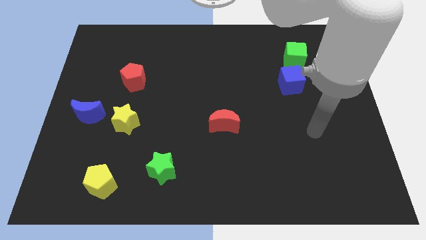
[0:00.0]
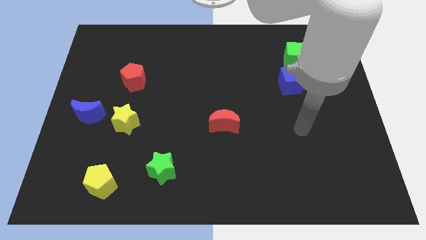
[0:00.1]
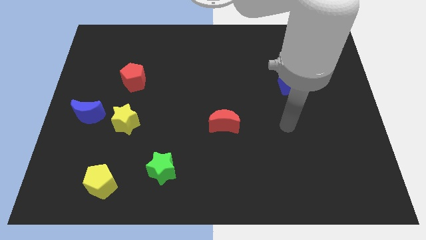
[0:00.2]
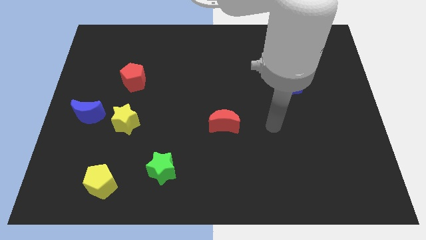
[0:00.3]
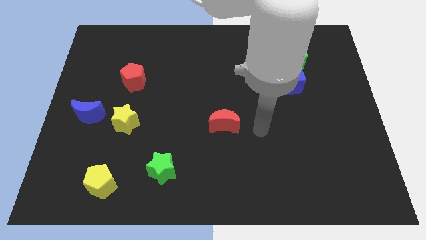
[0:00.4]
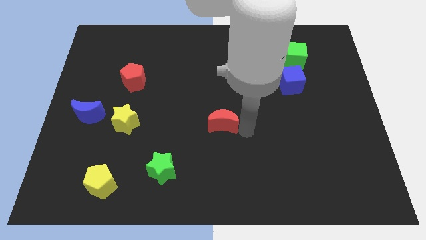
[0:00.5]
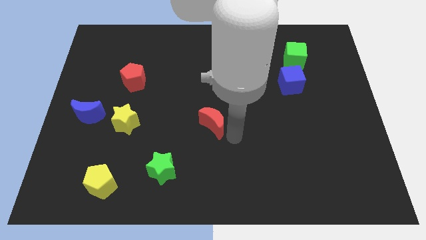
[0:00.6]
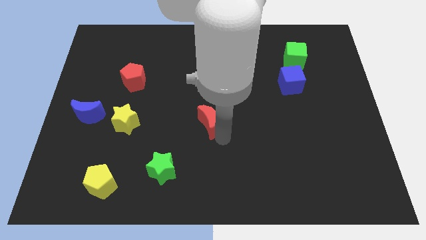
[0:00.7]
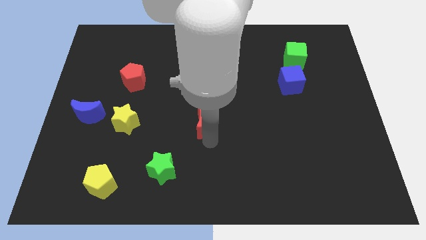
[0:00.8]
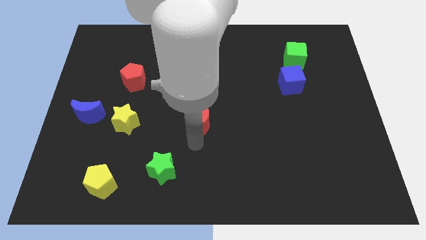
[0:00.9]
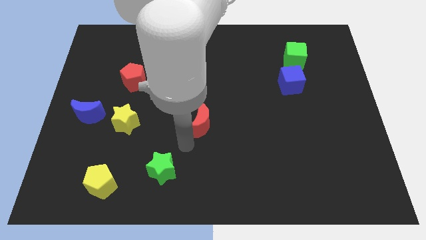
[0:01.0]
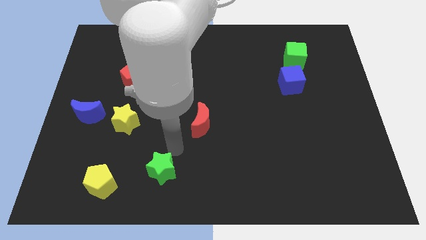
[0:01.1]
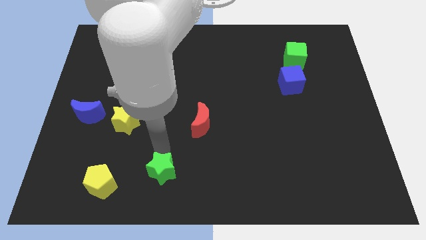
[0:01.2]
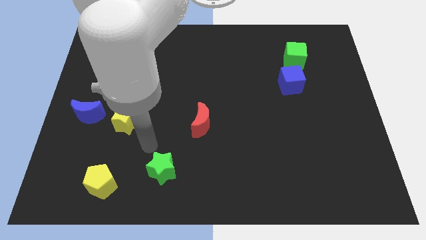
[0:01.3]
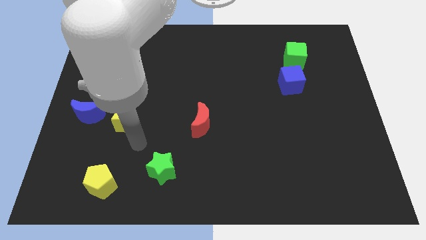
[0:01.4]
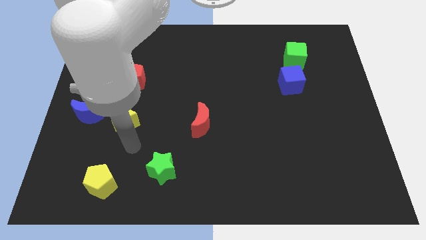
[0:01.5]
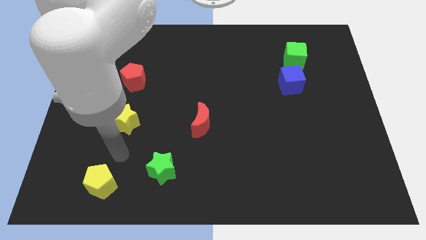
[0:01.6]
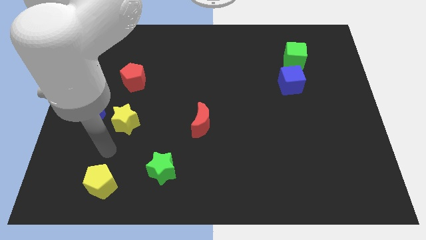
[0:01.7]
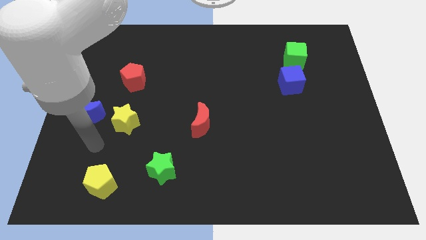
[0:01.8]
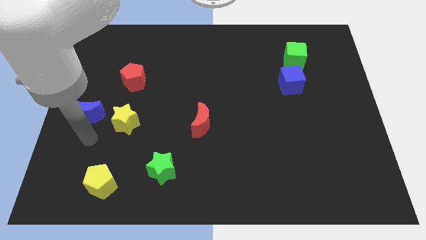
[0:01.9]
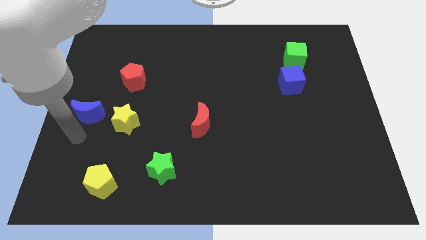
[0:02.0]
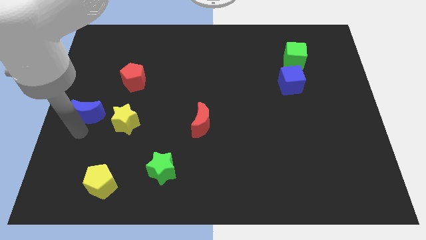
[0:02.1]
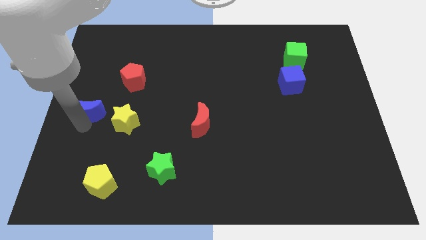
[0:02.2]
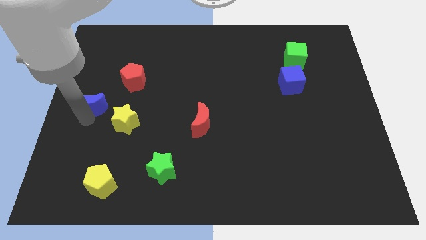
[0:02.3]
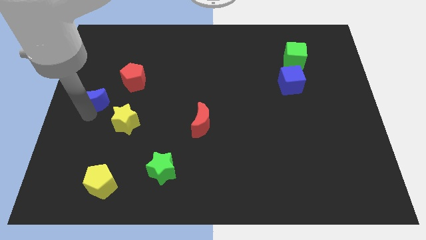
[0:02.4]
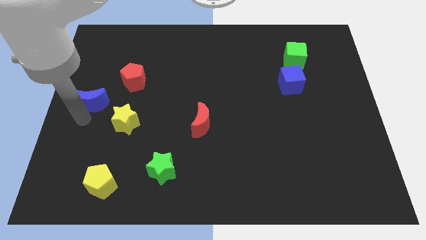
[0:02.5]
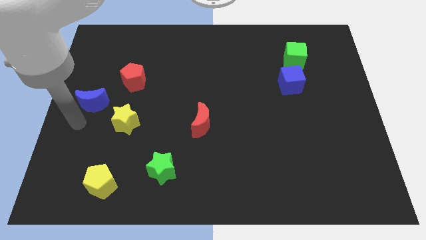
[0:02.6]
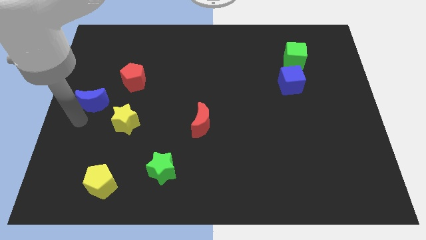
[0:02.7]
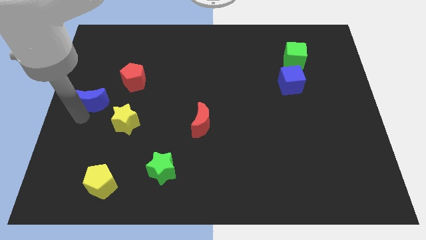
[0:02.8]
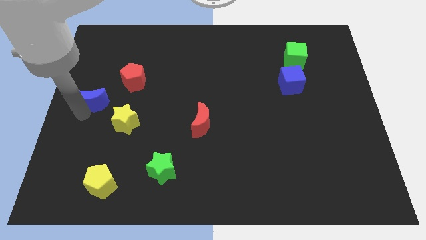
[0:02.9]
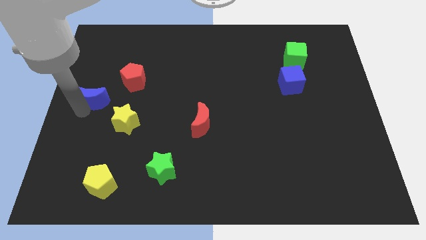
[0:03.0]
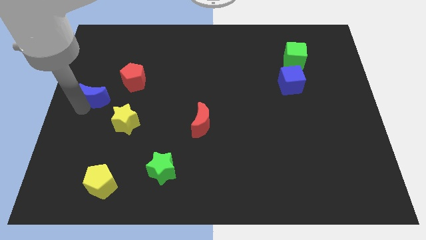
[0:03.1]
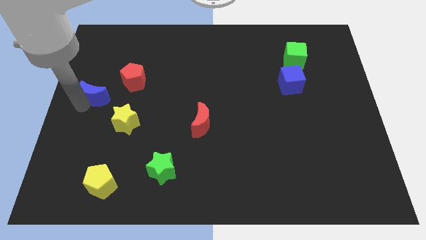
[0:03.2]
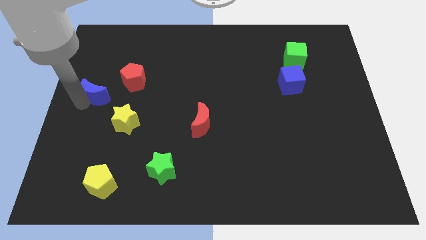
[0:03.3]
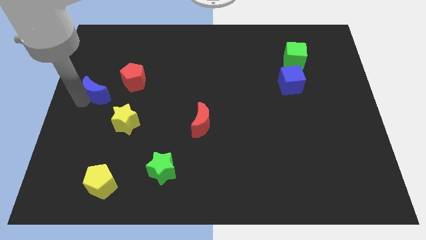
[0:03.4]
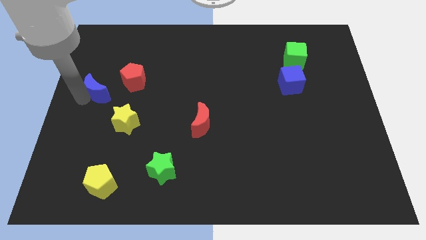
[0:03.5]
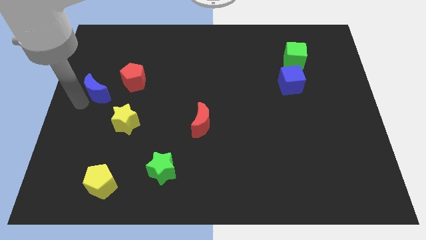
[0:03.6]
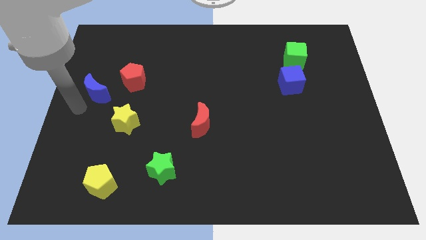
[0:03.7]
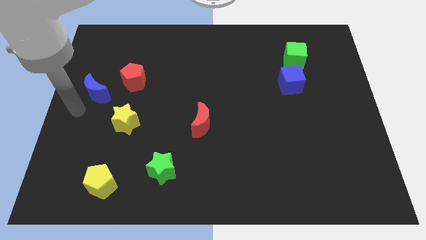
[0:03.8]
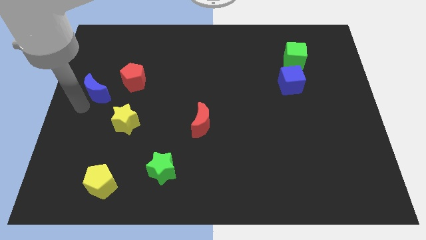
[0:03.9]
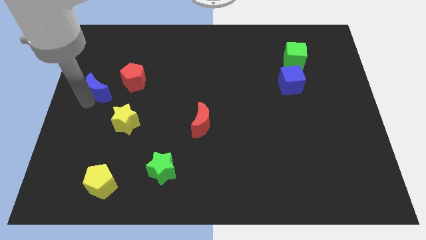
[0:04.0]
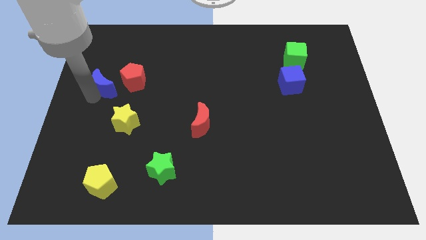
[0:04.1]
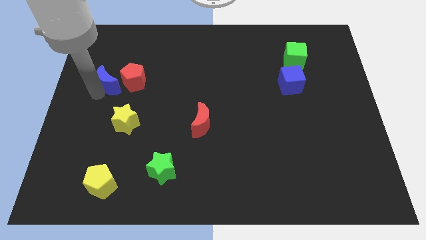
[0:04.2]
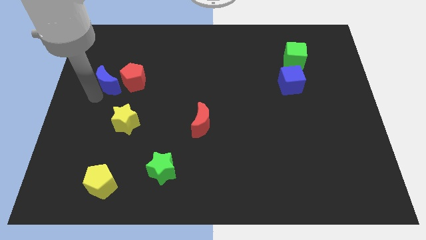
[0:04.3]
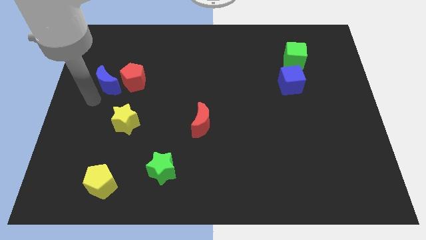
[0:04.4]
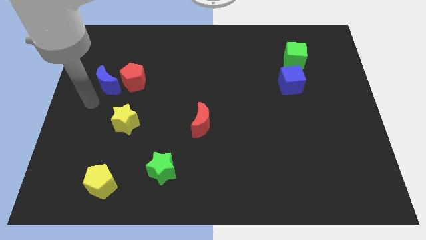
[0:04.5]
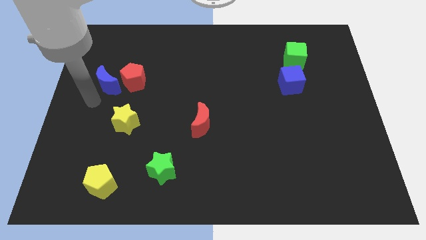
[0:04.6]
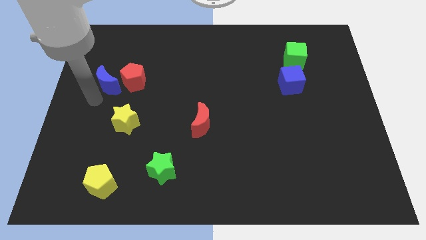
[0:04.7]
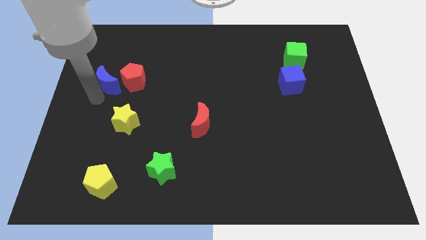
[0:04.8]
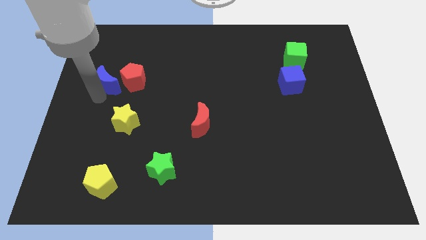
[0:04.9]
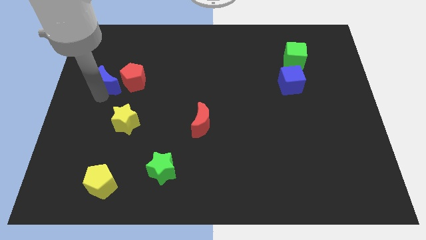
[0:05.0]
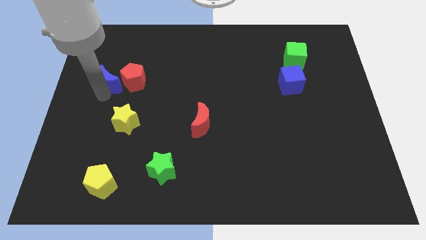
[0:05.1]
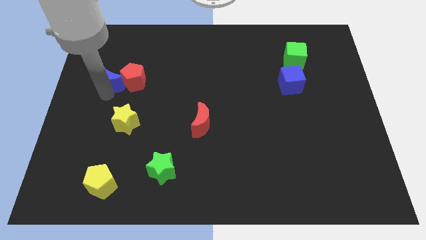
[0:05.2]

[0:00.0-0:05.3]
put the blue moon to the top left of the red pentagon

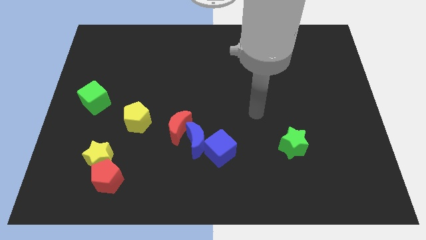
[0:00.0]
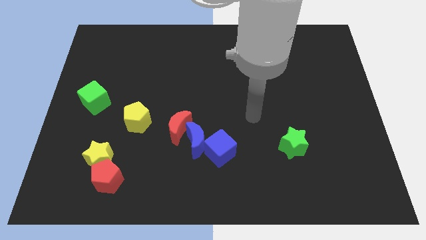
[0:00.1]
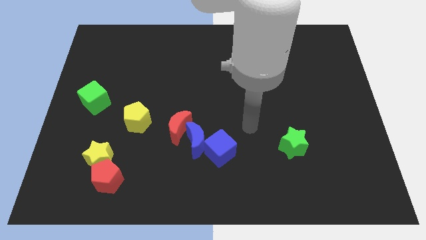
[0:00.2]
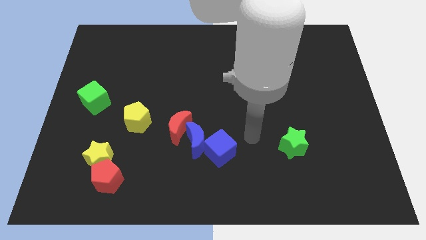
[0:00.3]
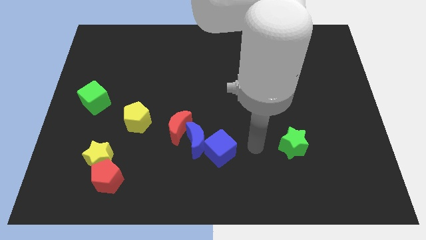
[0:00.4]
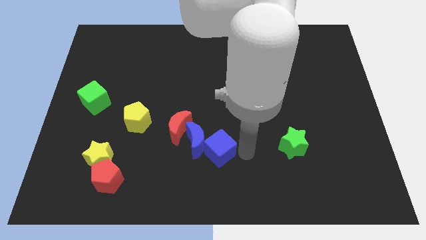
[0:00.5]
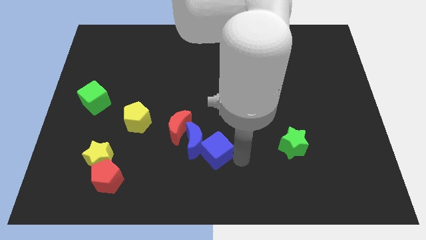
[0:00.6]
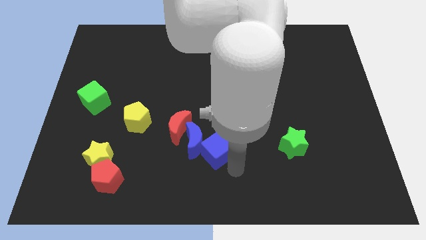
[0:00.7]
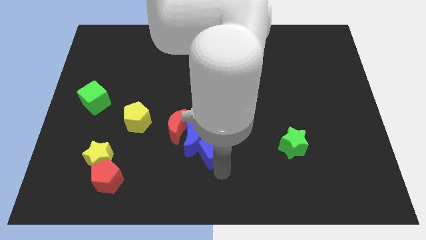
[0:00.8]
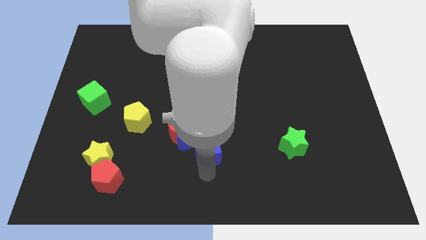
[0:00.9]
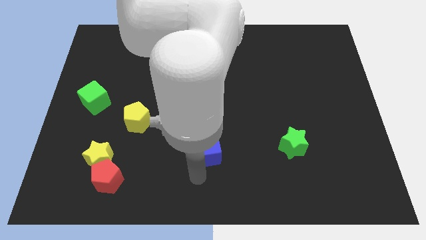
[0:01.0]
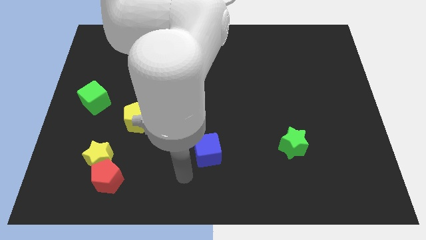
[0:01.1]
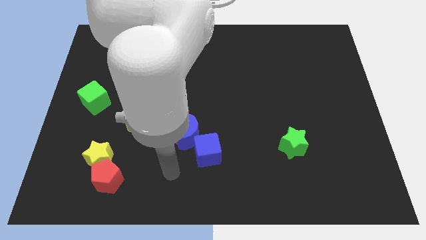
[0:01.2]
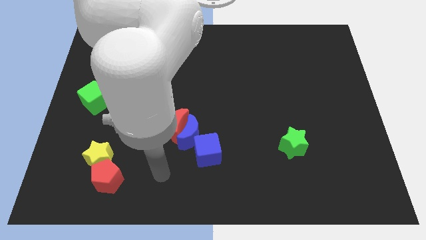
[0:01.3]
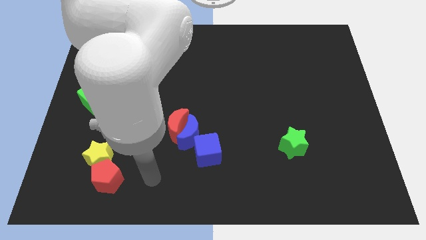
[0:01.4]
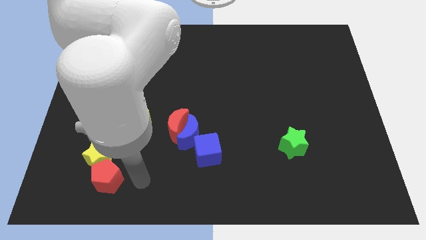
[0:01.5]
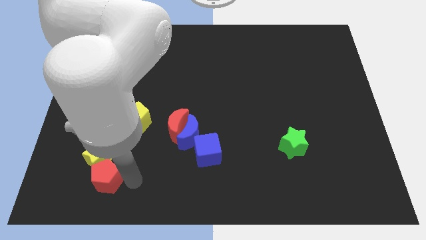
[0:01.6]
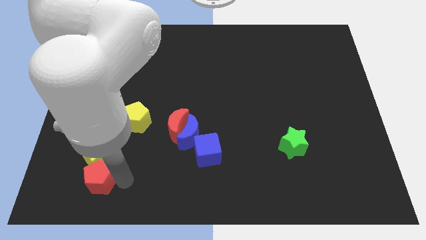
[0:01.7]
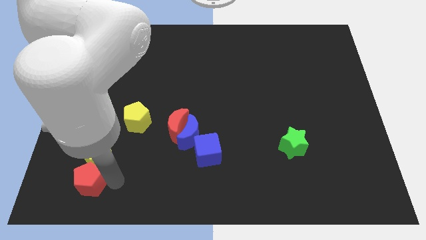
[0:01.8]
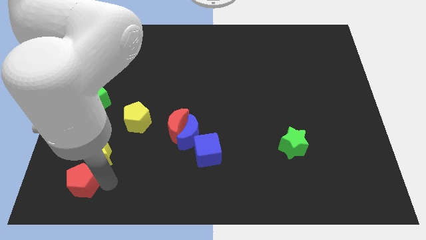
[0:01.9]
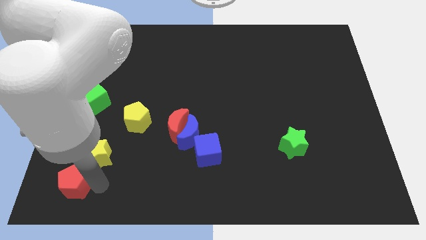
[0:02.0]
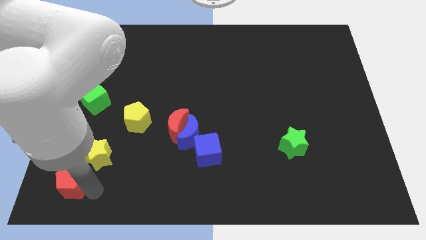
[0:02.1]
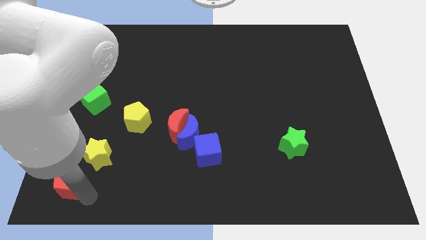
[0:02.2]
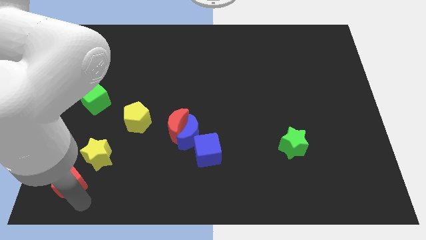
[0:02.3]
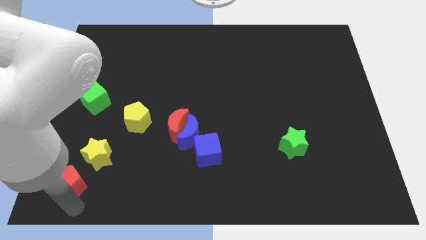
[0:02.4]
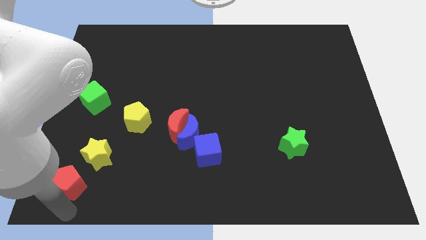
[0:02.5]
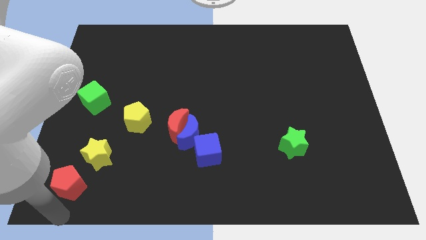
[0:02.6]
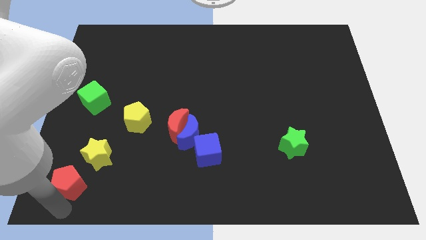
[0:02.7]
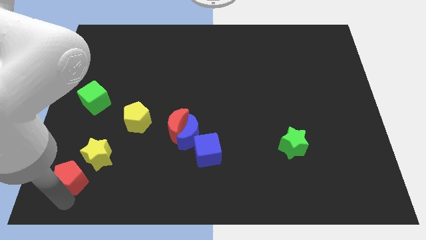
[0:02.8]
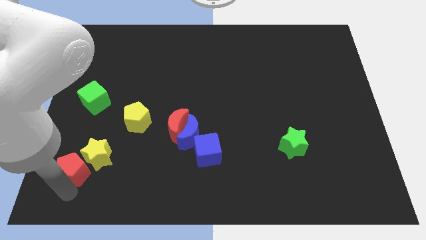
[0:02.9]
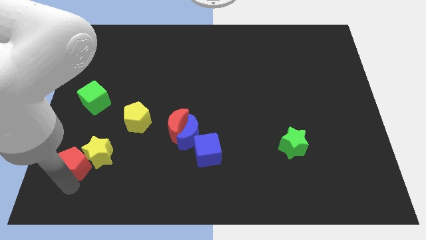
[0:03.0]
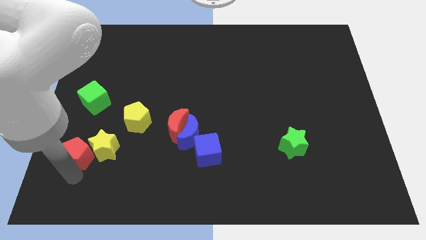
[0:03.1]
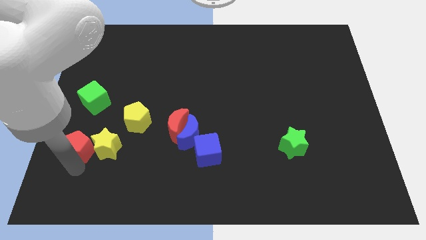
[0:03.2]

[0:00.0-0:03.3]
move the red pentagon diagonally up and to the left of the yellow star
